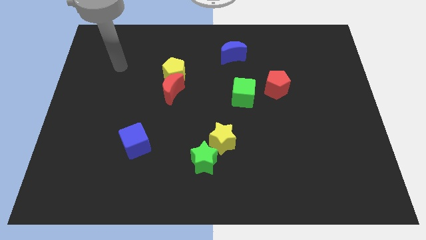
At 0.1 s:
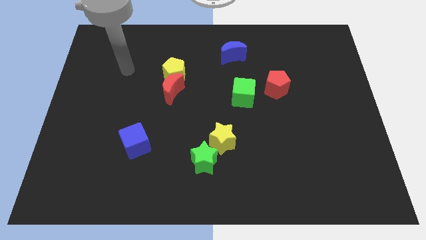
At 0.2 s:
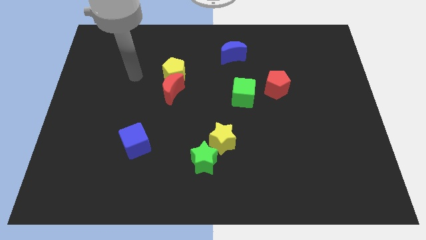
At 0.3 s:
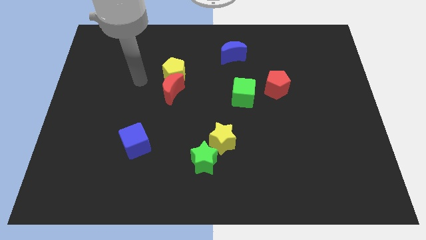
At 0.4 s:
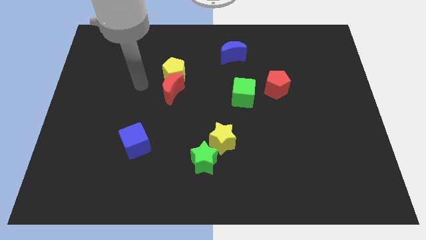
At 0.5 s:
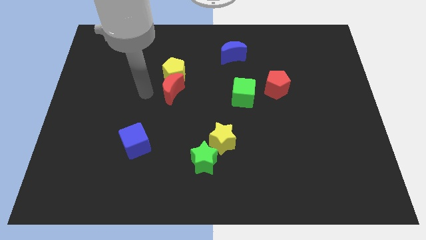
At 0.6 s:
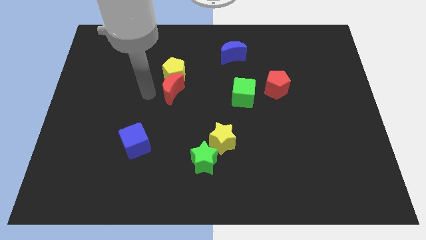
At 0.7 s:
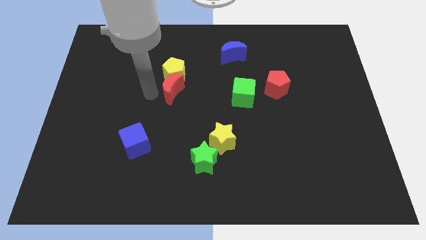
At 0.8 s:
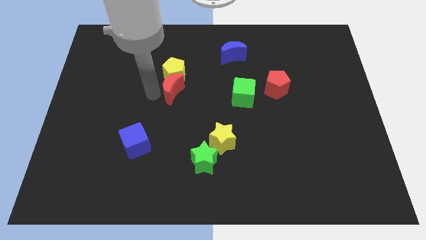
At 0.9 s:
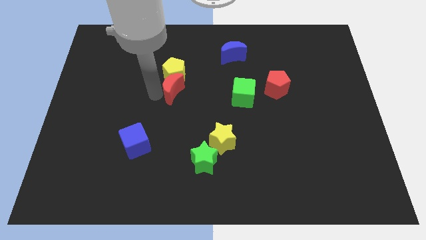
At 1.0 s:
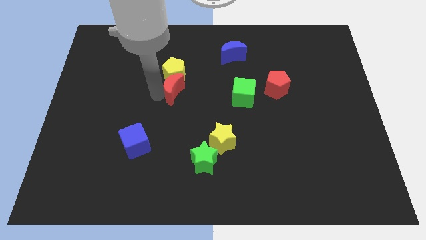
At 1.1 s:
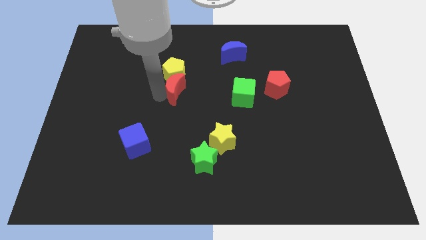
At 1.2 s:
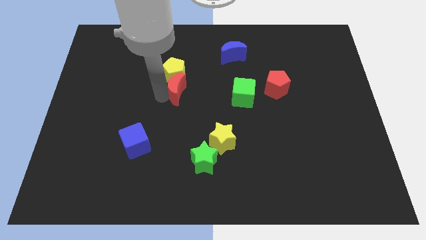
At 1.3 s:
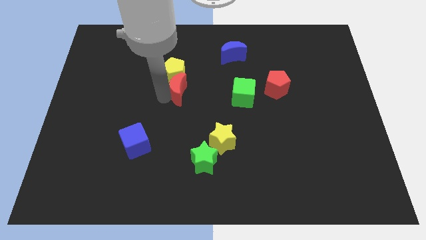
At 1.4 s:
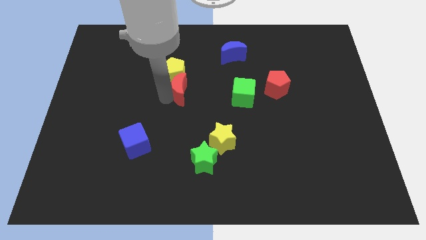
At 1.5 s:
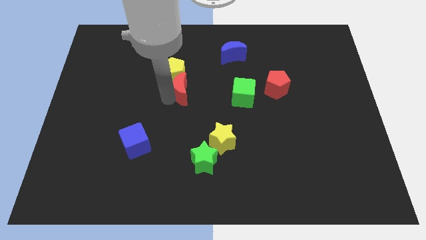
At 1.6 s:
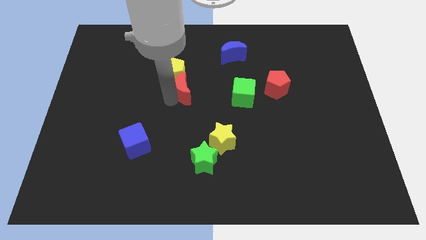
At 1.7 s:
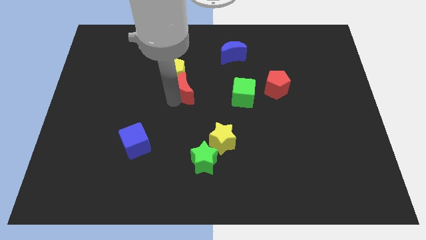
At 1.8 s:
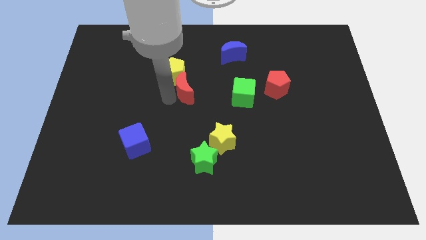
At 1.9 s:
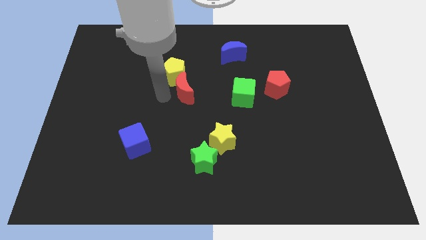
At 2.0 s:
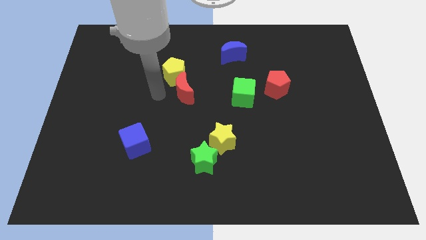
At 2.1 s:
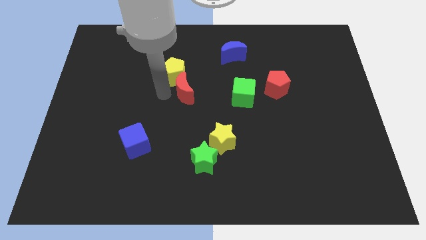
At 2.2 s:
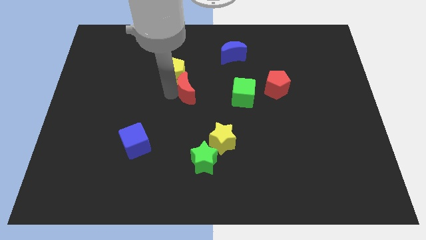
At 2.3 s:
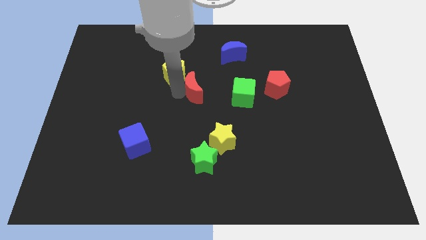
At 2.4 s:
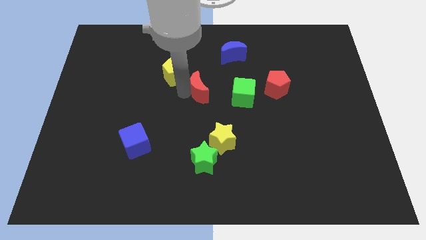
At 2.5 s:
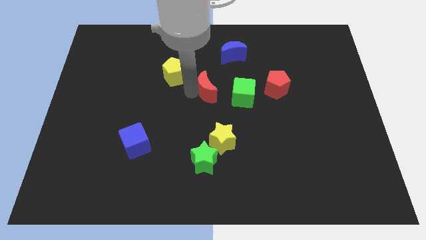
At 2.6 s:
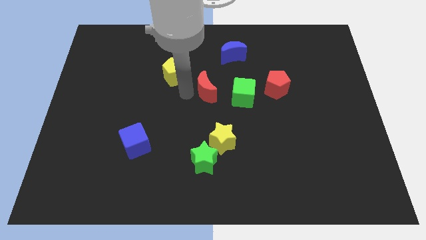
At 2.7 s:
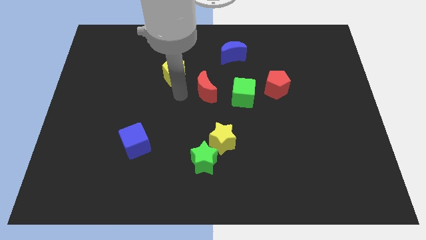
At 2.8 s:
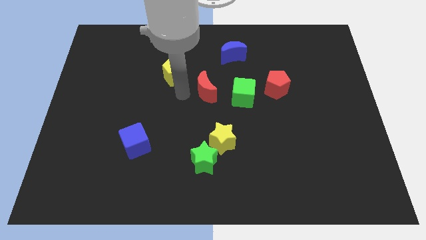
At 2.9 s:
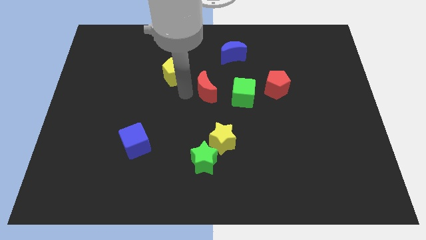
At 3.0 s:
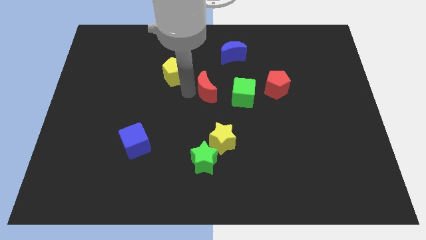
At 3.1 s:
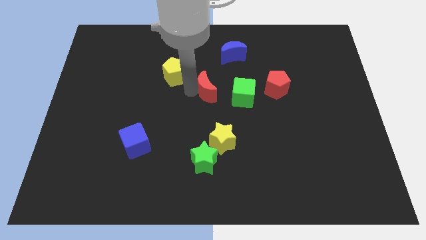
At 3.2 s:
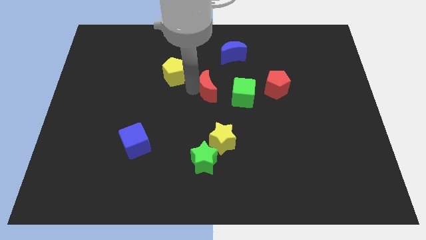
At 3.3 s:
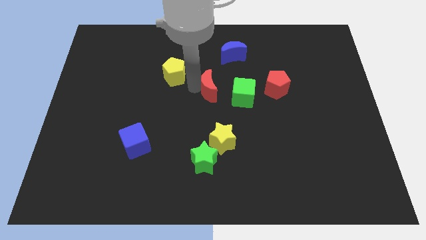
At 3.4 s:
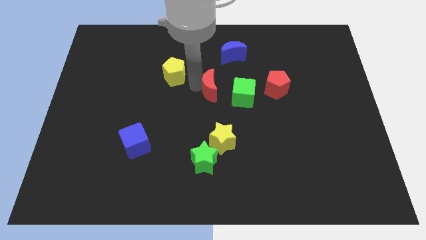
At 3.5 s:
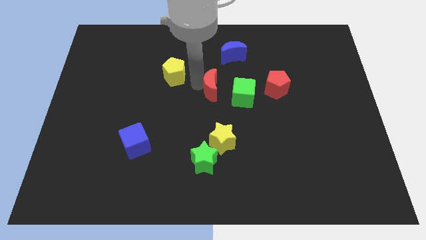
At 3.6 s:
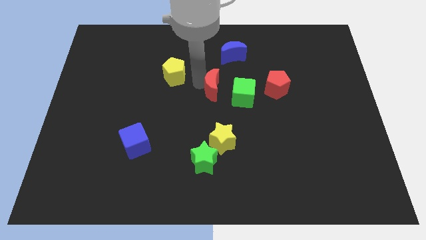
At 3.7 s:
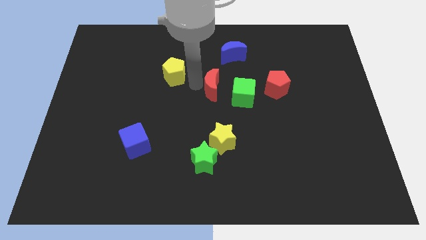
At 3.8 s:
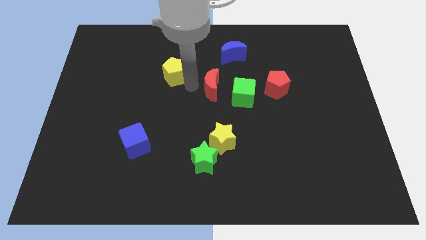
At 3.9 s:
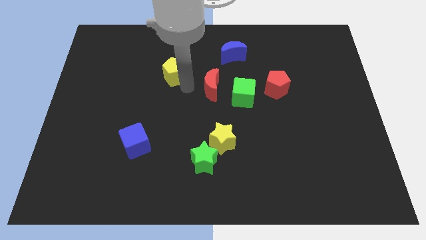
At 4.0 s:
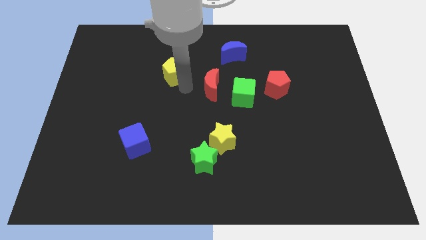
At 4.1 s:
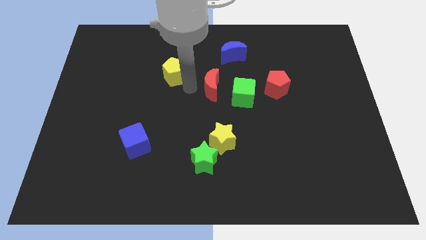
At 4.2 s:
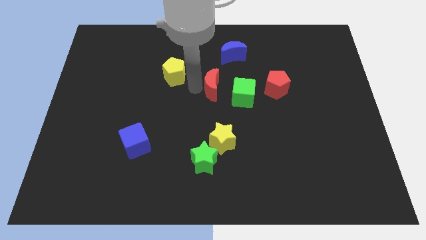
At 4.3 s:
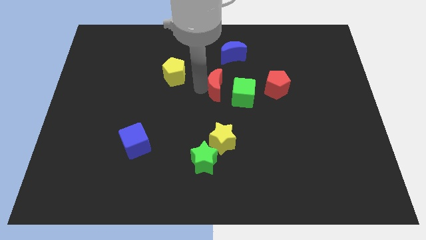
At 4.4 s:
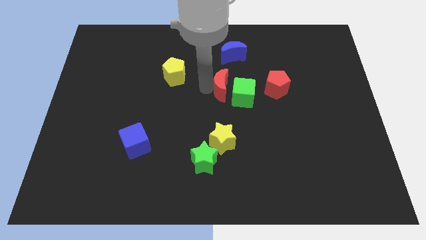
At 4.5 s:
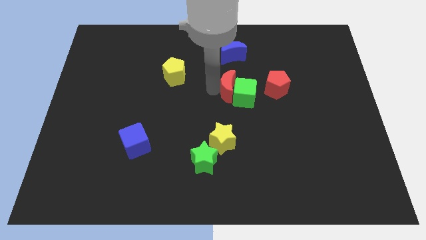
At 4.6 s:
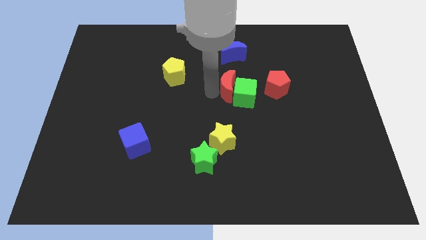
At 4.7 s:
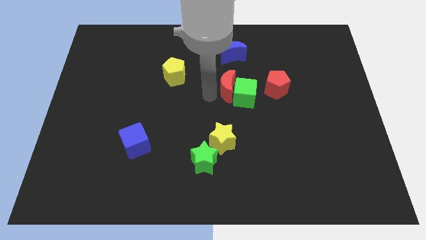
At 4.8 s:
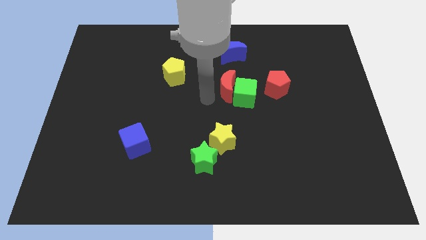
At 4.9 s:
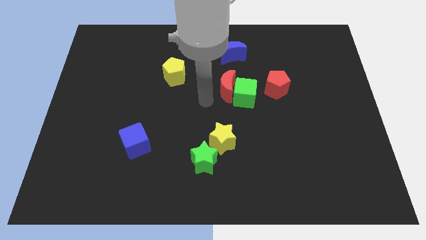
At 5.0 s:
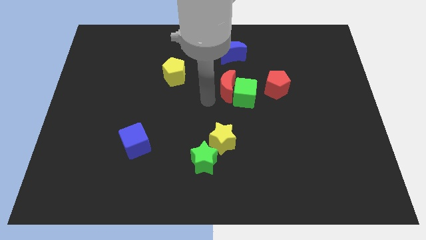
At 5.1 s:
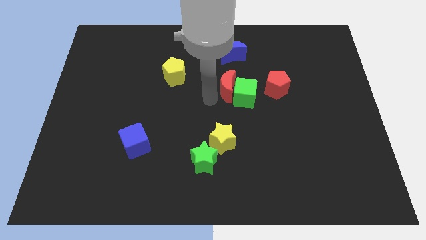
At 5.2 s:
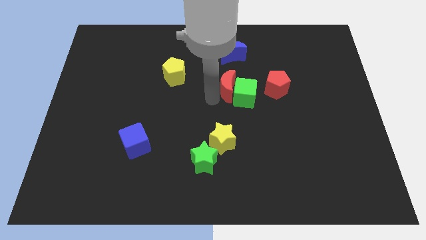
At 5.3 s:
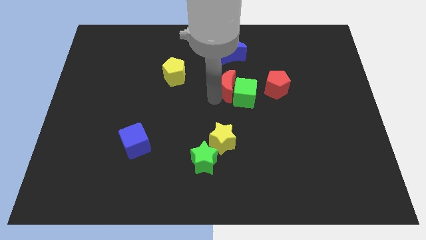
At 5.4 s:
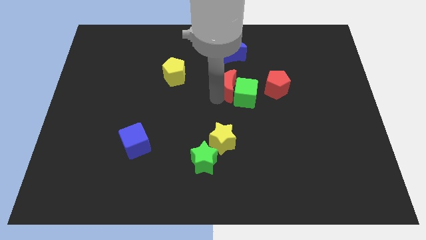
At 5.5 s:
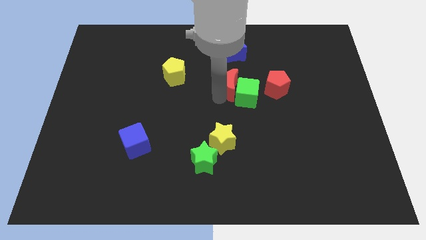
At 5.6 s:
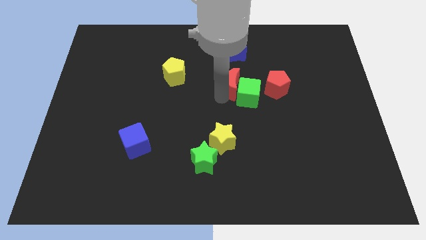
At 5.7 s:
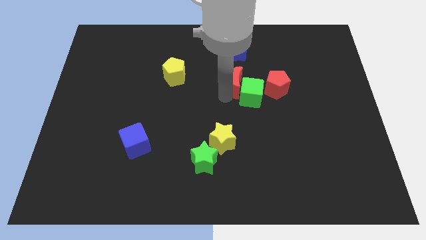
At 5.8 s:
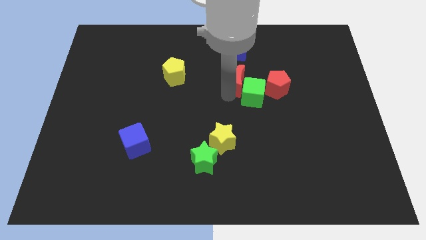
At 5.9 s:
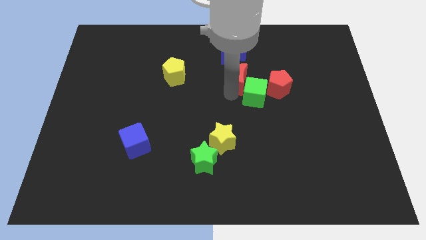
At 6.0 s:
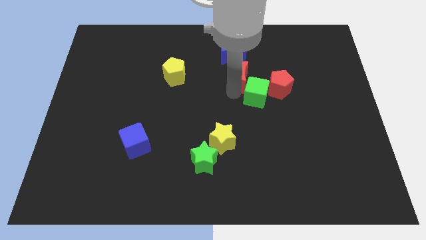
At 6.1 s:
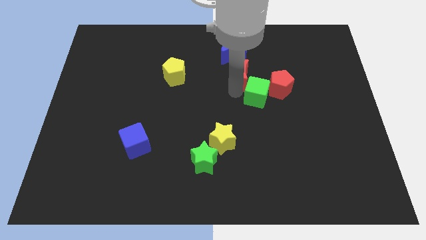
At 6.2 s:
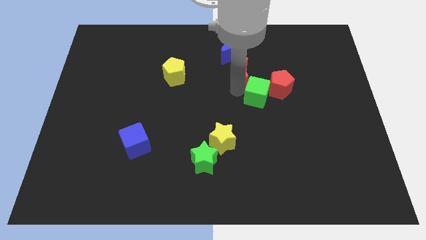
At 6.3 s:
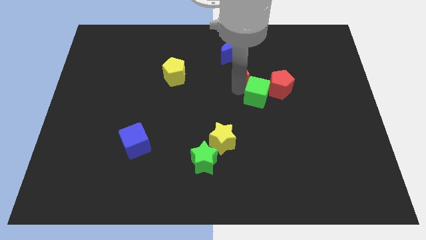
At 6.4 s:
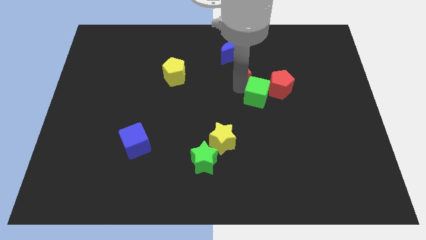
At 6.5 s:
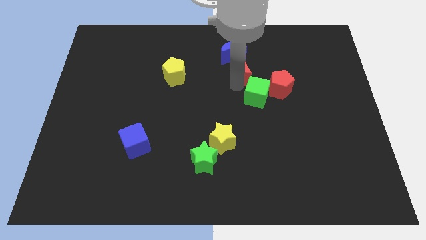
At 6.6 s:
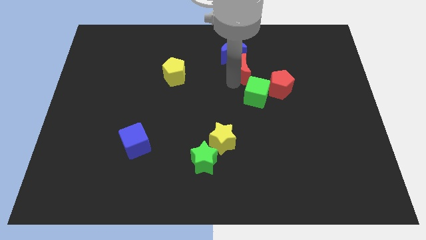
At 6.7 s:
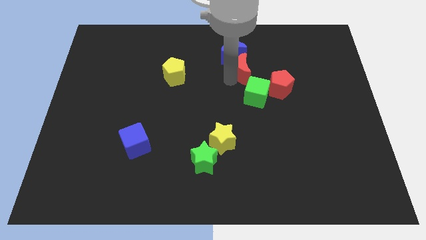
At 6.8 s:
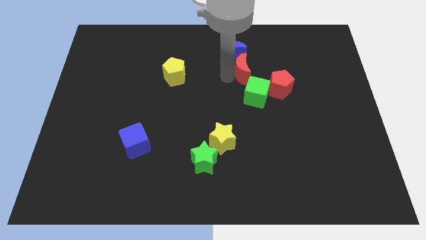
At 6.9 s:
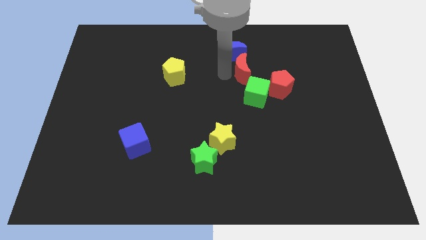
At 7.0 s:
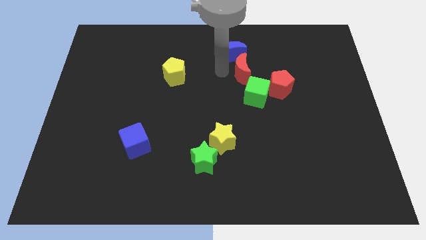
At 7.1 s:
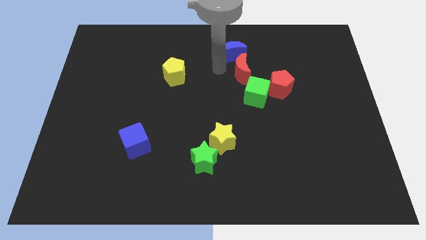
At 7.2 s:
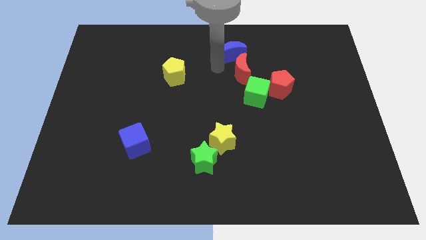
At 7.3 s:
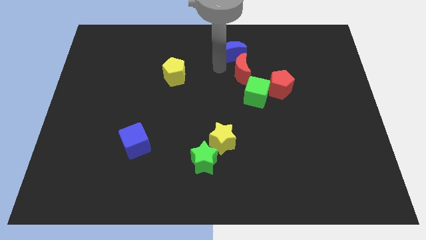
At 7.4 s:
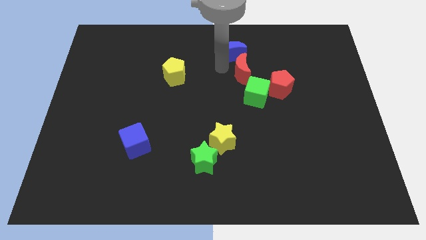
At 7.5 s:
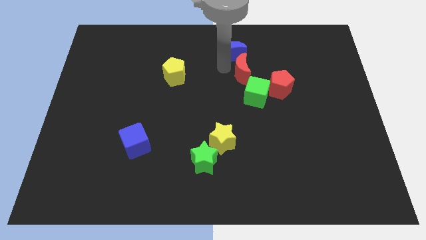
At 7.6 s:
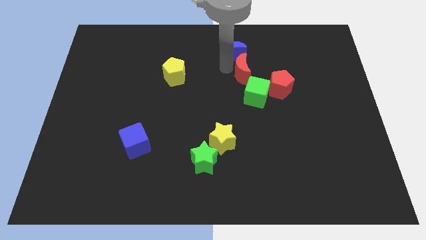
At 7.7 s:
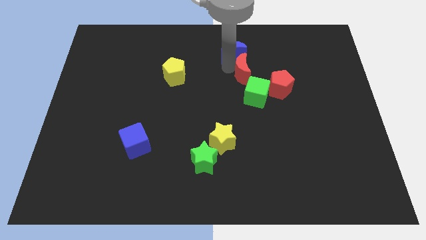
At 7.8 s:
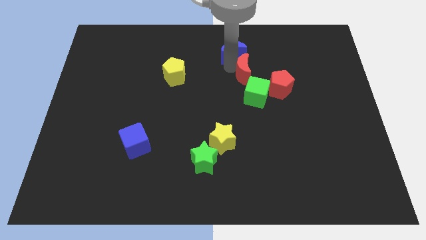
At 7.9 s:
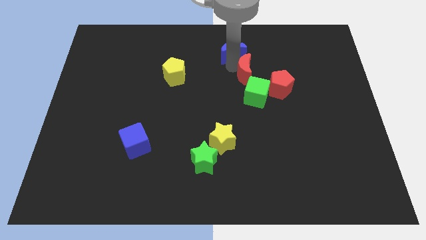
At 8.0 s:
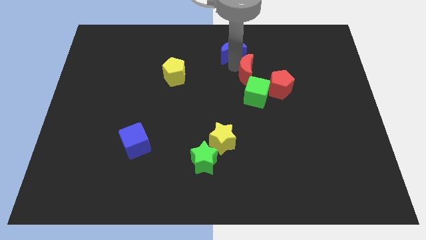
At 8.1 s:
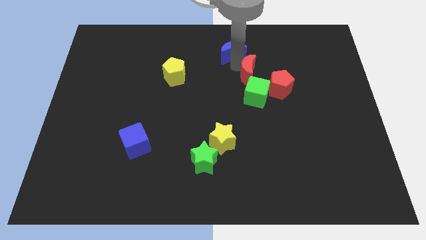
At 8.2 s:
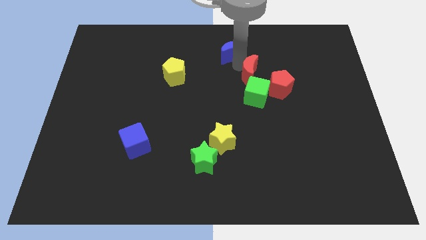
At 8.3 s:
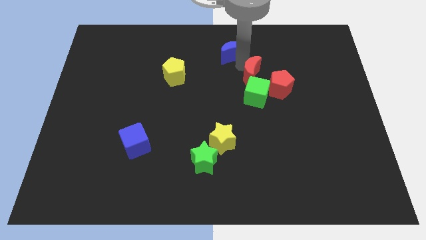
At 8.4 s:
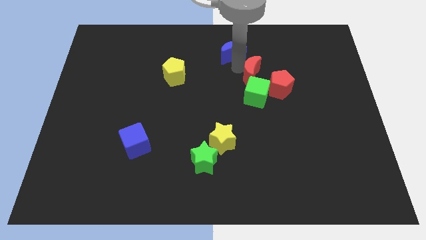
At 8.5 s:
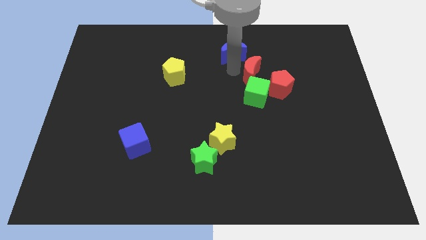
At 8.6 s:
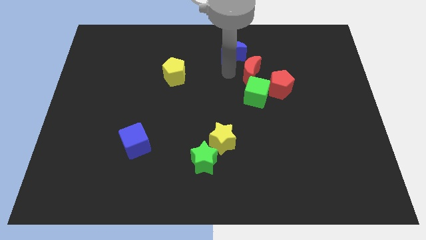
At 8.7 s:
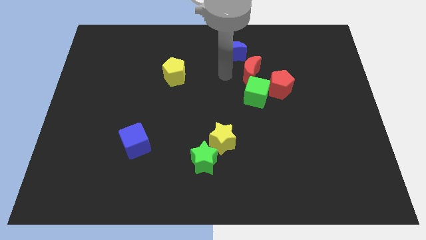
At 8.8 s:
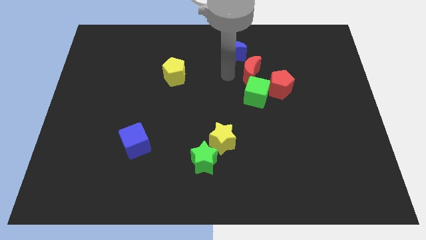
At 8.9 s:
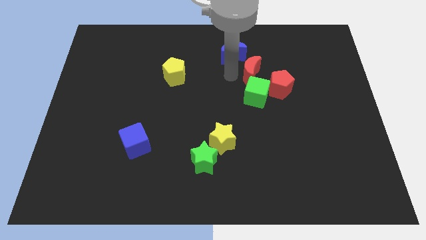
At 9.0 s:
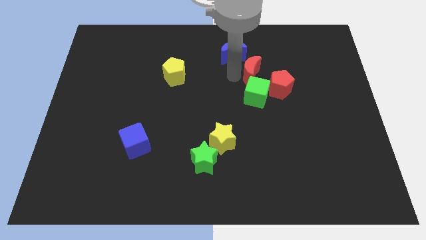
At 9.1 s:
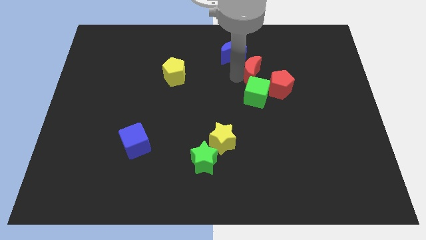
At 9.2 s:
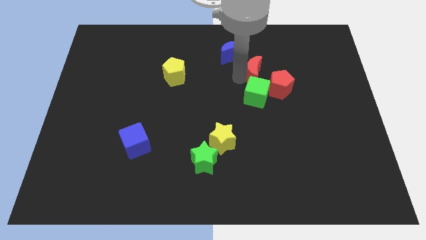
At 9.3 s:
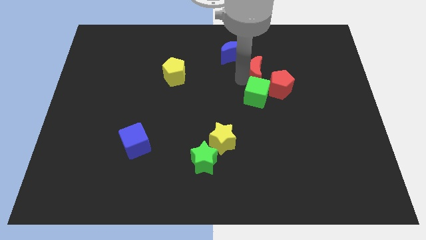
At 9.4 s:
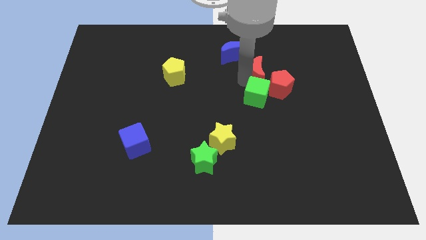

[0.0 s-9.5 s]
move the red moon right
